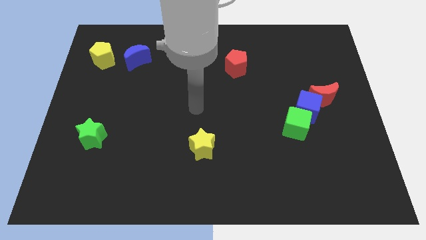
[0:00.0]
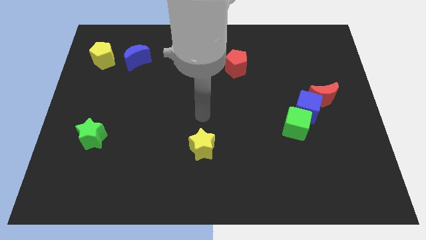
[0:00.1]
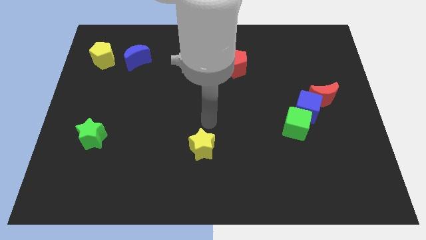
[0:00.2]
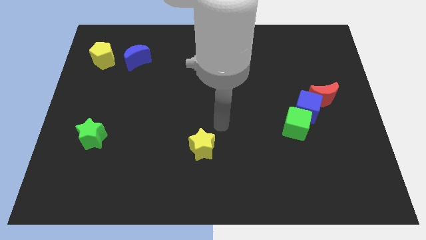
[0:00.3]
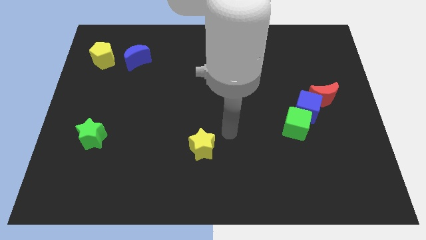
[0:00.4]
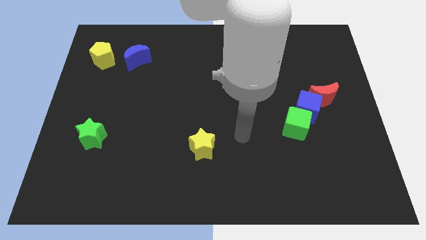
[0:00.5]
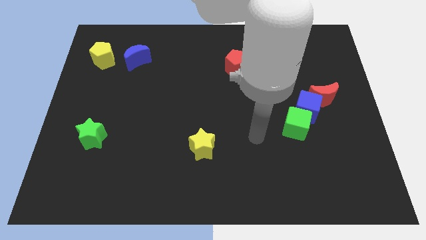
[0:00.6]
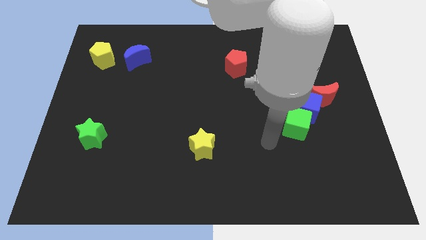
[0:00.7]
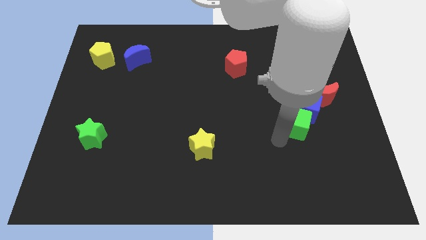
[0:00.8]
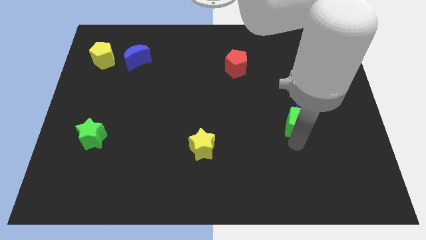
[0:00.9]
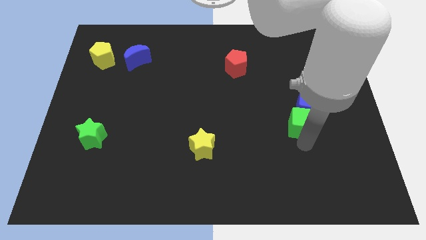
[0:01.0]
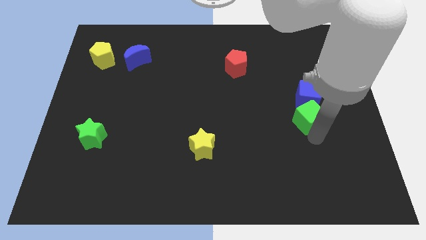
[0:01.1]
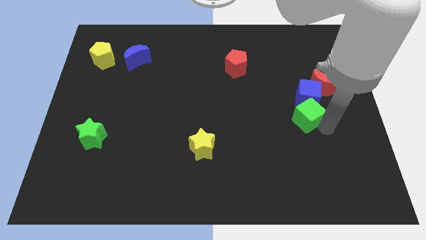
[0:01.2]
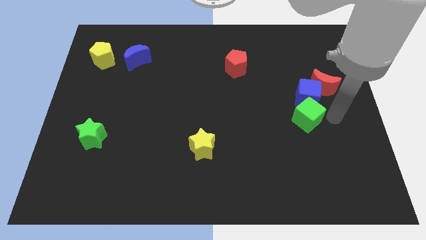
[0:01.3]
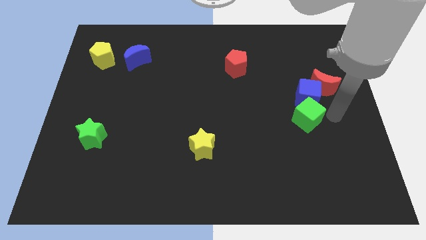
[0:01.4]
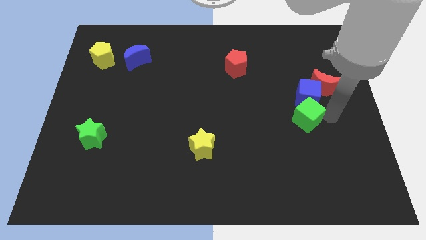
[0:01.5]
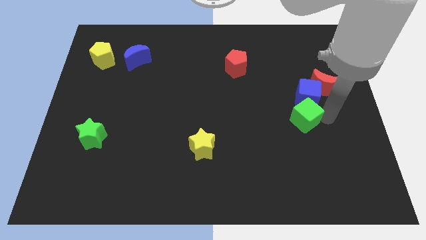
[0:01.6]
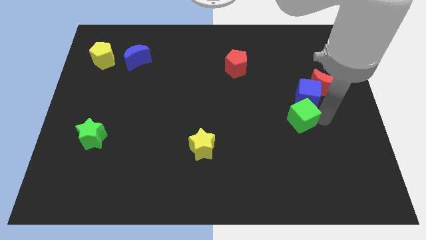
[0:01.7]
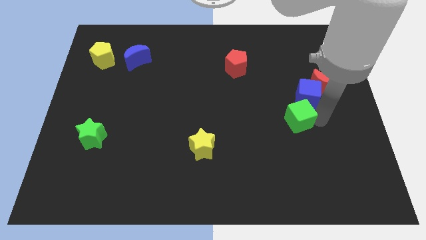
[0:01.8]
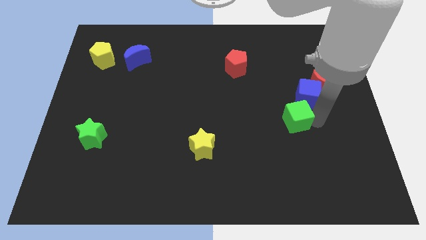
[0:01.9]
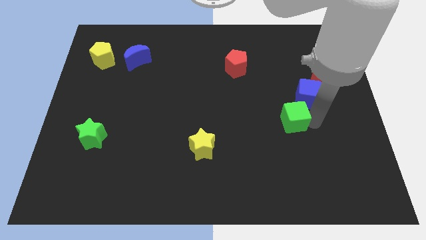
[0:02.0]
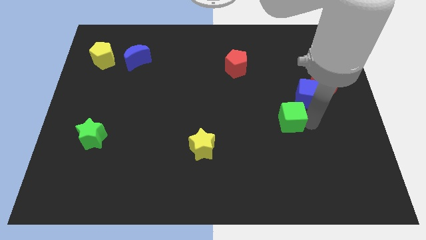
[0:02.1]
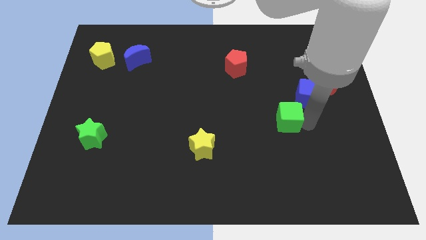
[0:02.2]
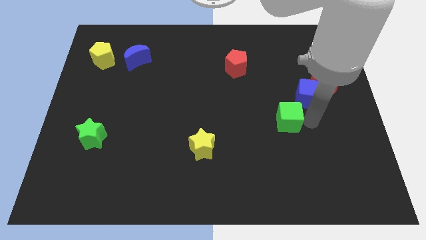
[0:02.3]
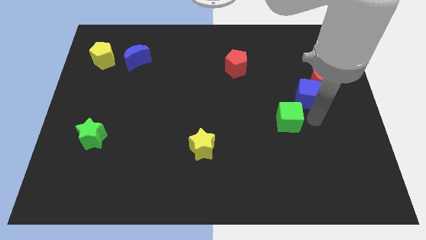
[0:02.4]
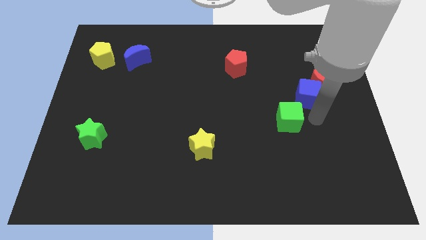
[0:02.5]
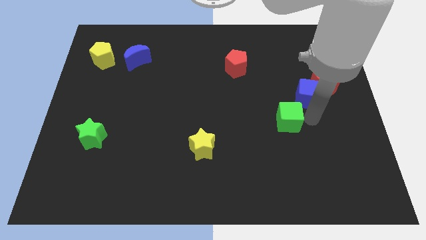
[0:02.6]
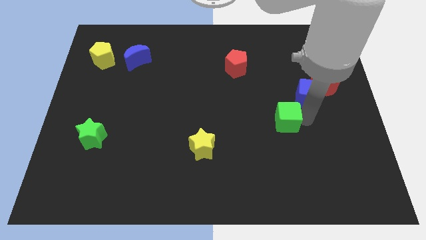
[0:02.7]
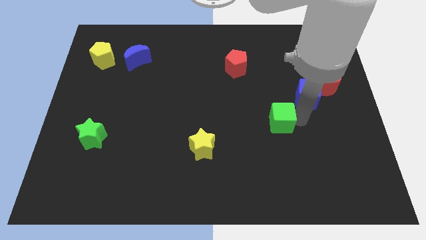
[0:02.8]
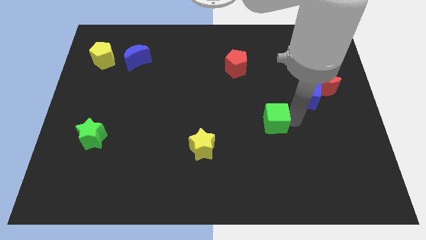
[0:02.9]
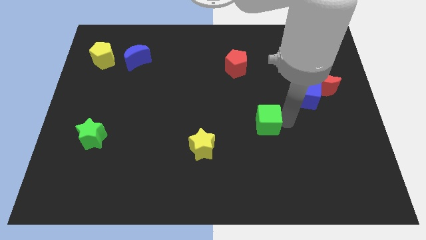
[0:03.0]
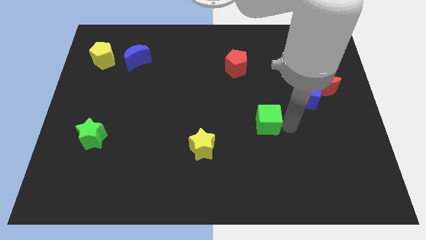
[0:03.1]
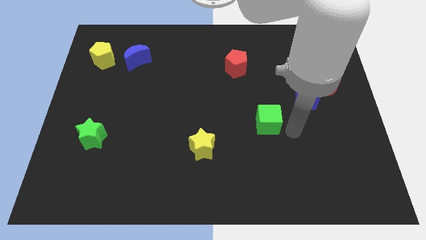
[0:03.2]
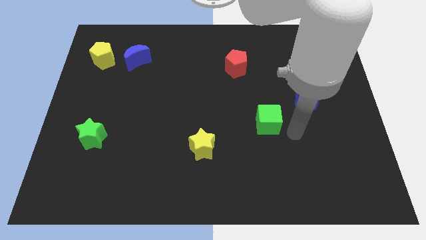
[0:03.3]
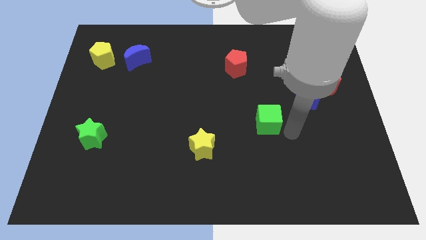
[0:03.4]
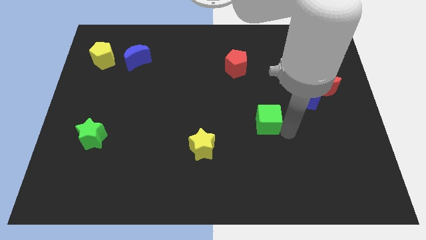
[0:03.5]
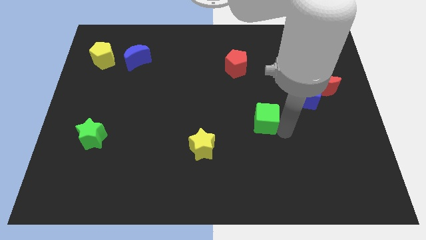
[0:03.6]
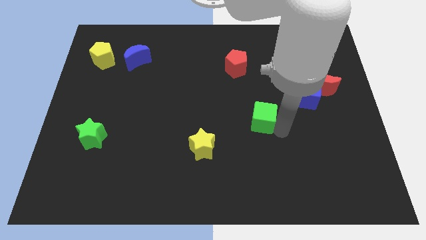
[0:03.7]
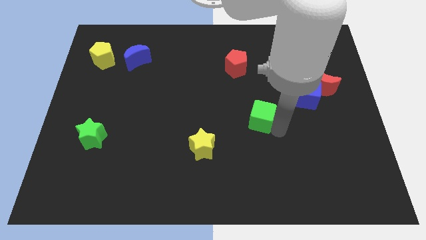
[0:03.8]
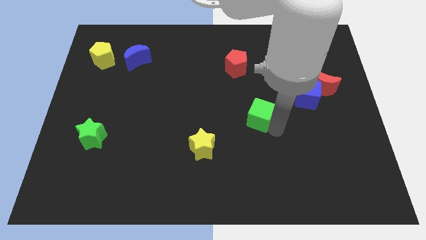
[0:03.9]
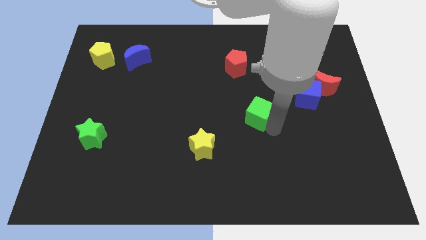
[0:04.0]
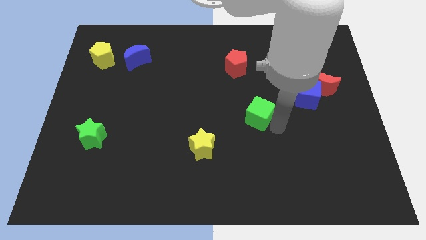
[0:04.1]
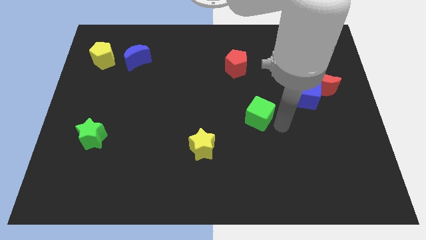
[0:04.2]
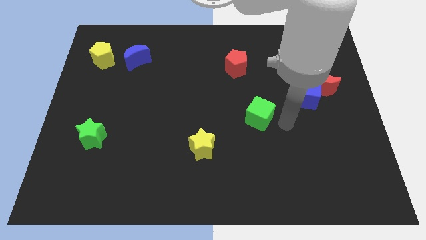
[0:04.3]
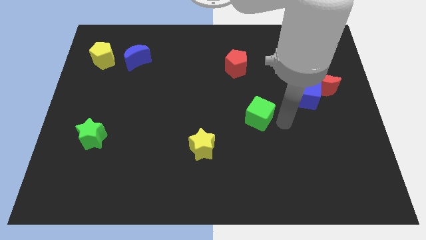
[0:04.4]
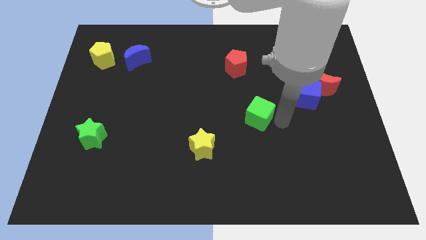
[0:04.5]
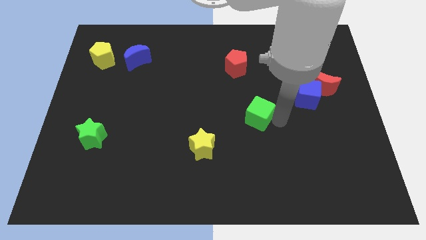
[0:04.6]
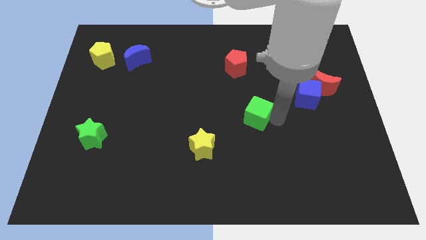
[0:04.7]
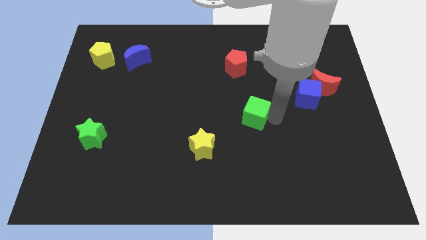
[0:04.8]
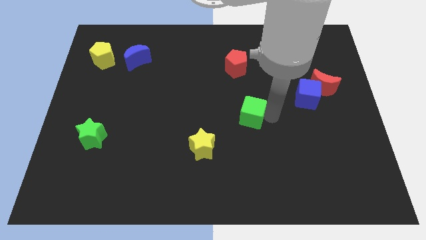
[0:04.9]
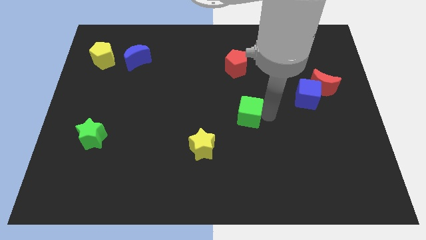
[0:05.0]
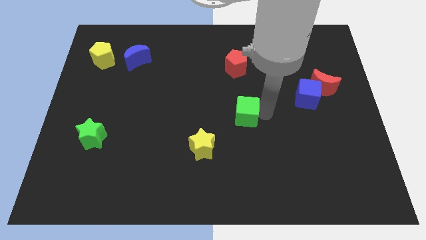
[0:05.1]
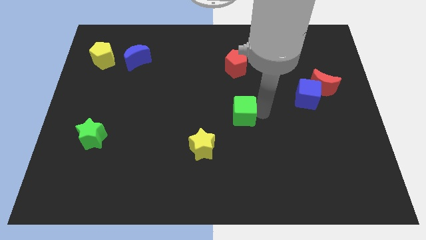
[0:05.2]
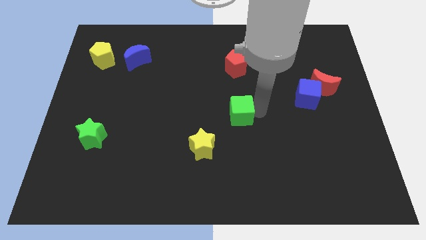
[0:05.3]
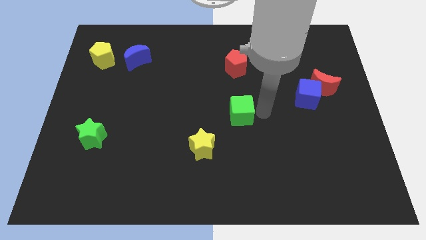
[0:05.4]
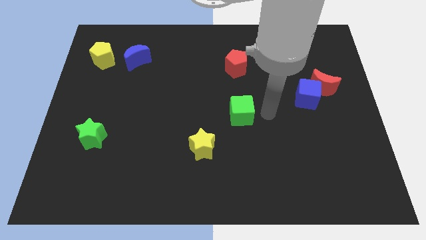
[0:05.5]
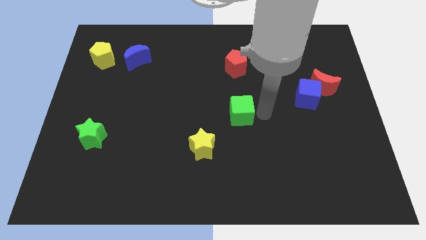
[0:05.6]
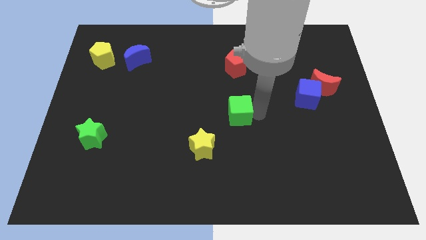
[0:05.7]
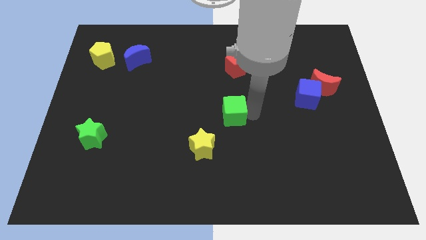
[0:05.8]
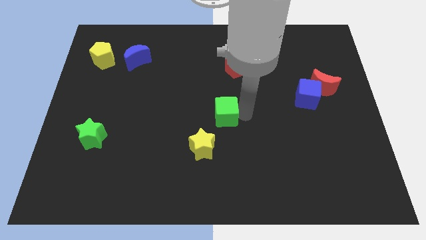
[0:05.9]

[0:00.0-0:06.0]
push the green cube to the top of the yellow star
